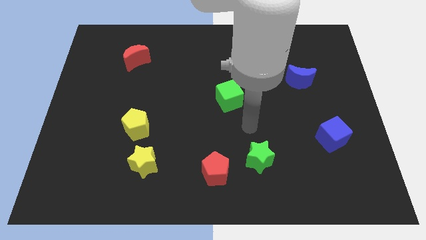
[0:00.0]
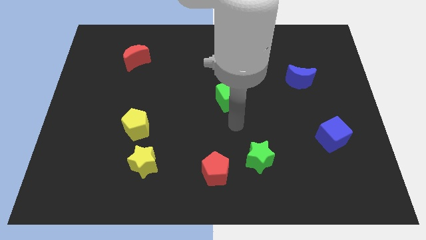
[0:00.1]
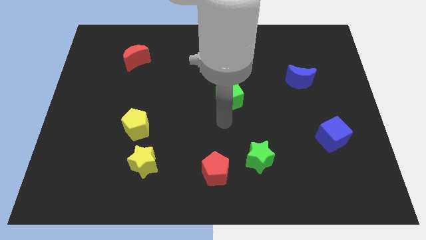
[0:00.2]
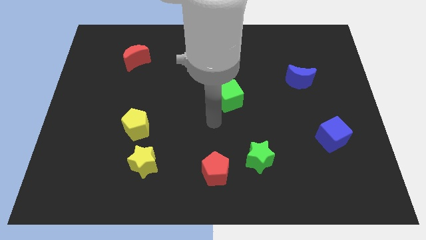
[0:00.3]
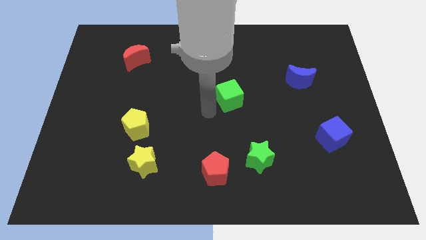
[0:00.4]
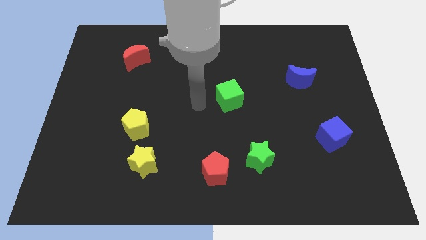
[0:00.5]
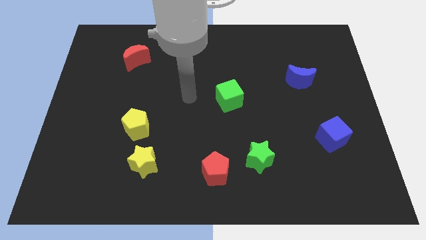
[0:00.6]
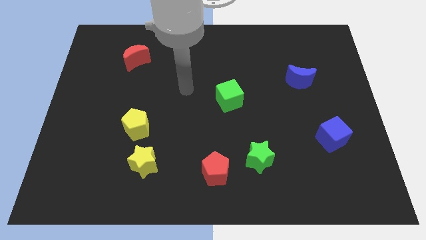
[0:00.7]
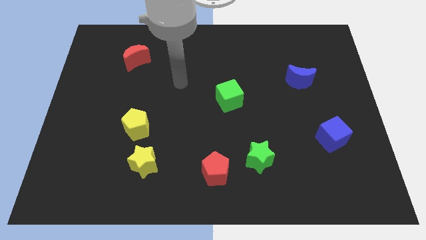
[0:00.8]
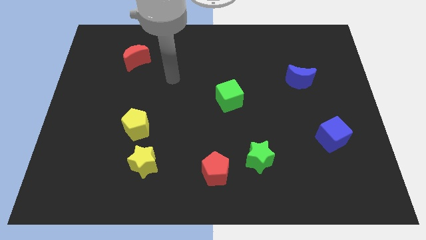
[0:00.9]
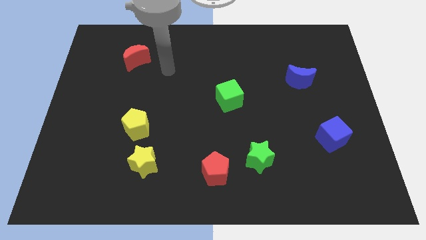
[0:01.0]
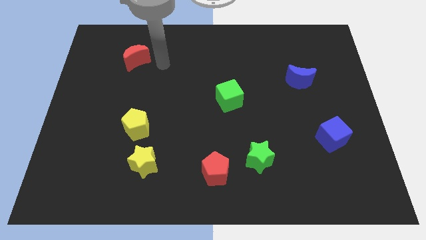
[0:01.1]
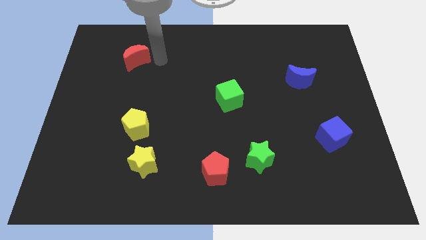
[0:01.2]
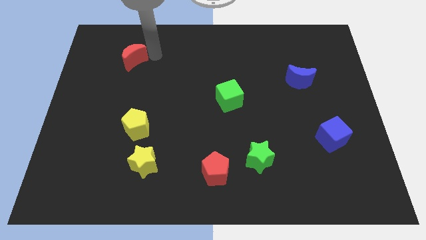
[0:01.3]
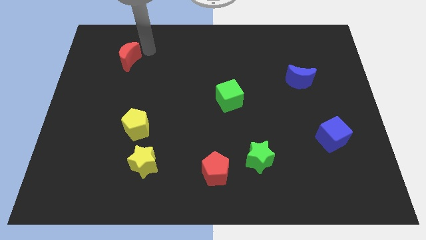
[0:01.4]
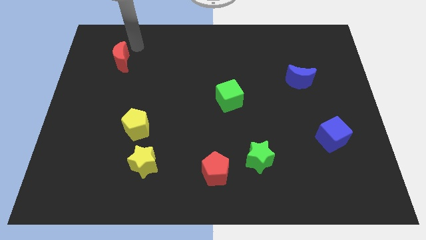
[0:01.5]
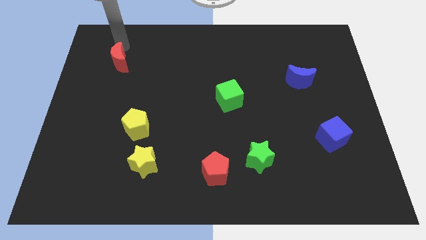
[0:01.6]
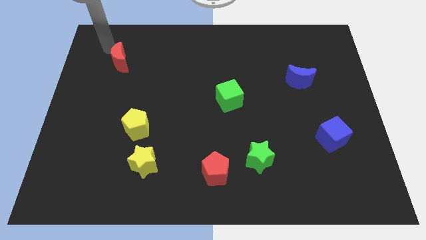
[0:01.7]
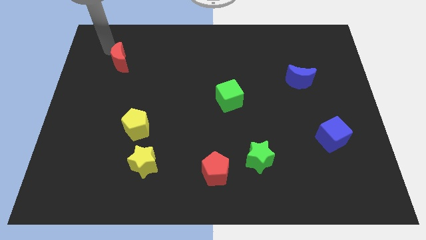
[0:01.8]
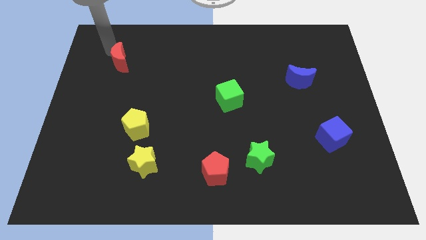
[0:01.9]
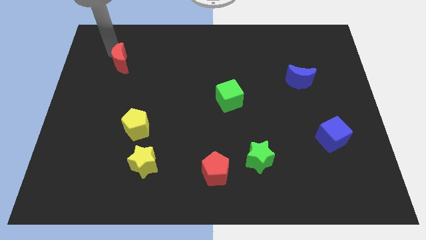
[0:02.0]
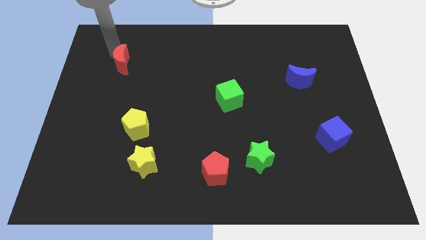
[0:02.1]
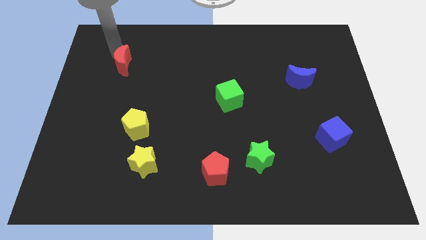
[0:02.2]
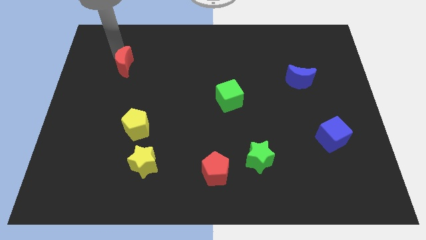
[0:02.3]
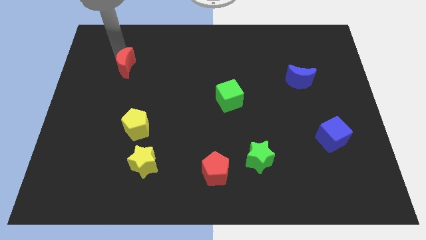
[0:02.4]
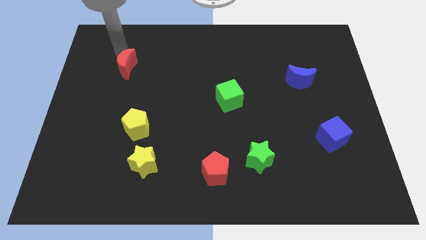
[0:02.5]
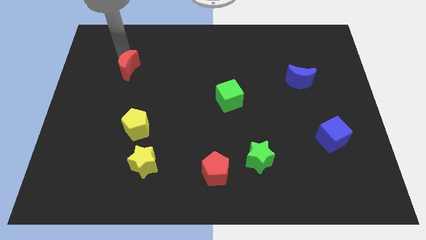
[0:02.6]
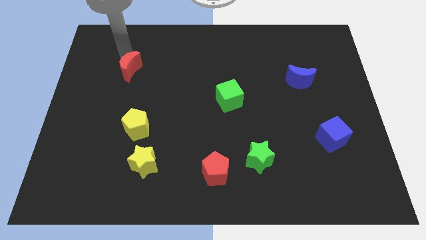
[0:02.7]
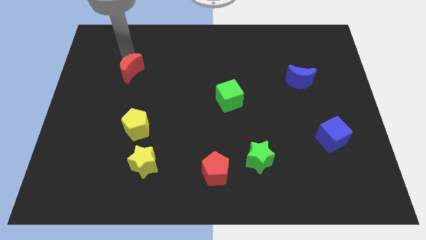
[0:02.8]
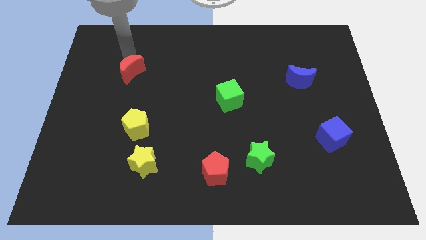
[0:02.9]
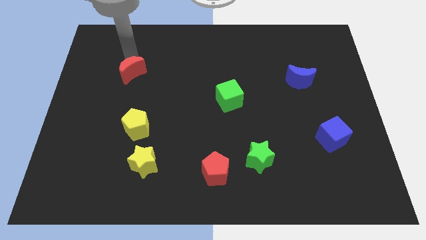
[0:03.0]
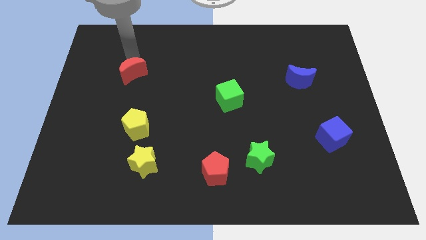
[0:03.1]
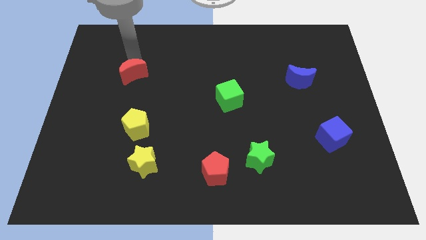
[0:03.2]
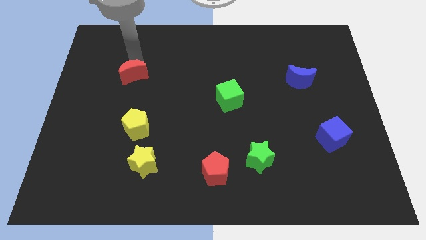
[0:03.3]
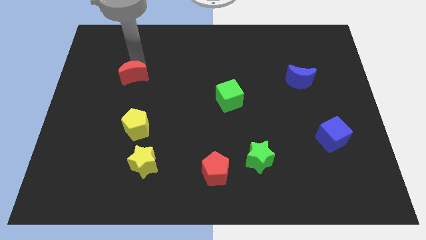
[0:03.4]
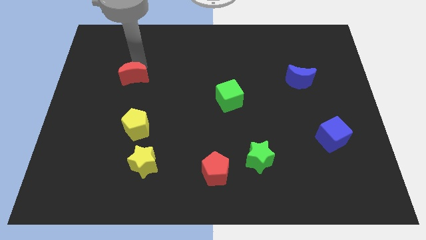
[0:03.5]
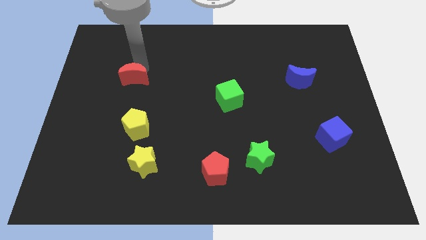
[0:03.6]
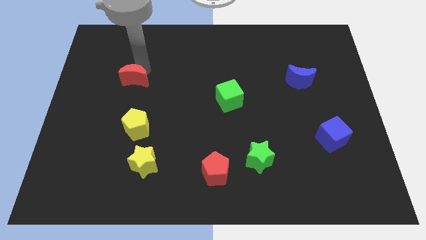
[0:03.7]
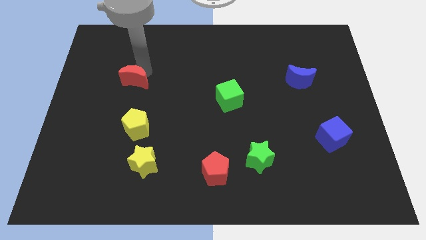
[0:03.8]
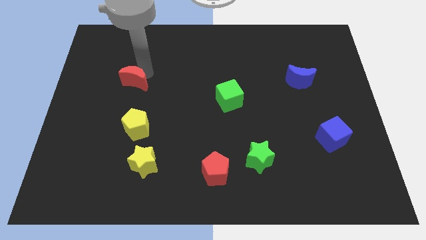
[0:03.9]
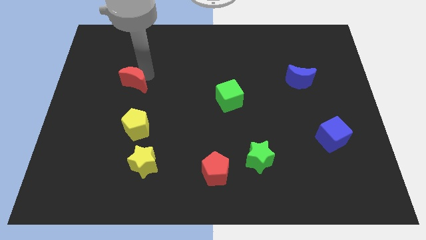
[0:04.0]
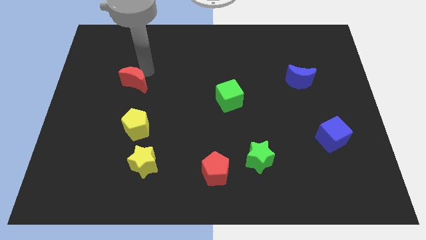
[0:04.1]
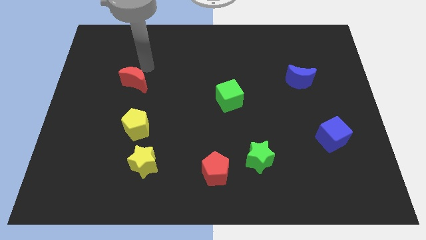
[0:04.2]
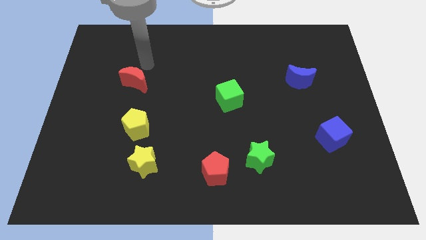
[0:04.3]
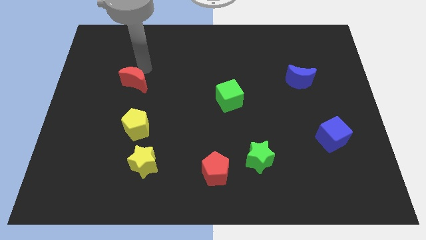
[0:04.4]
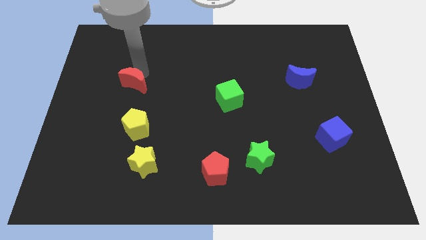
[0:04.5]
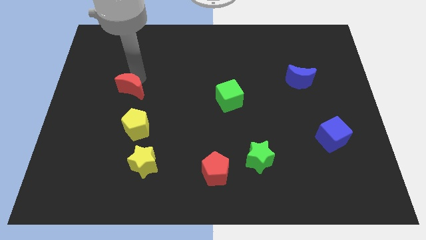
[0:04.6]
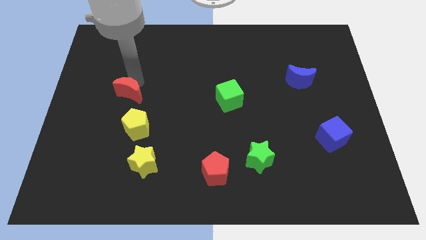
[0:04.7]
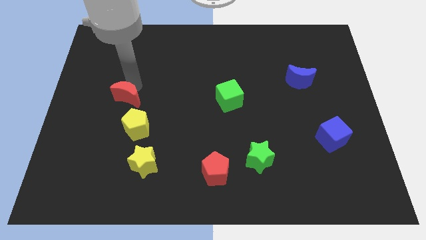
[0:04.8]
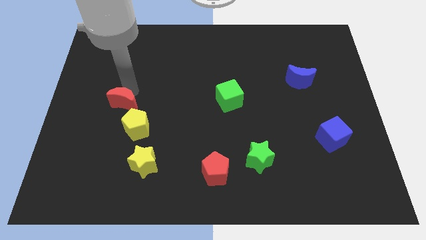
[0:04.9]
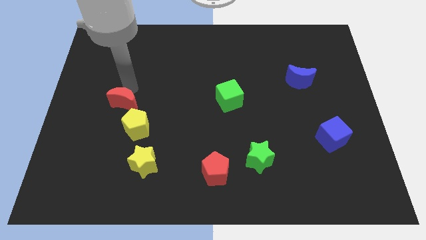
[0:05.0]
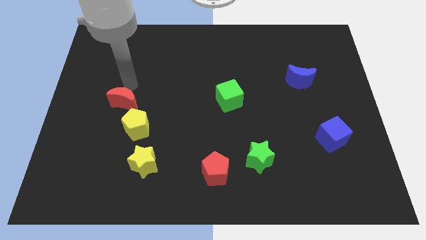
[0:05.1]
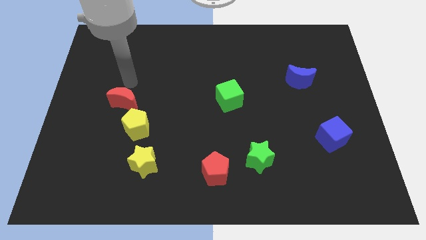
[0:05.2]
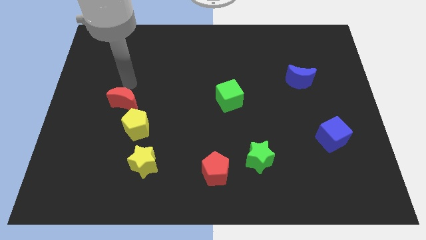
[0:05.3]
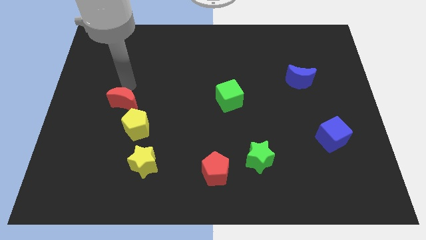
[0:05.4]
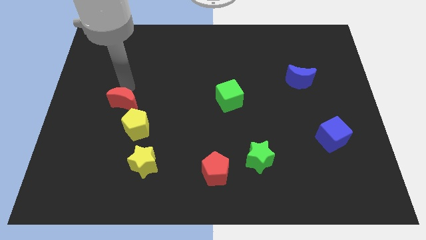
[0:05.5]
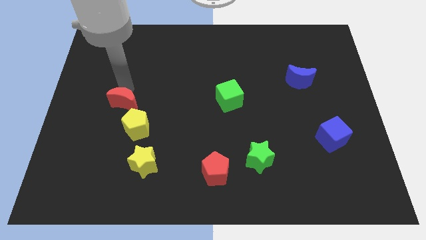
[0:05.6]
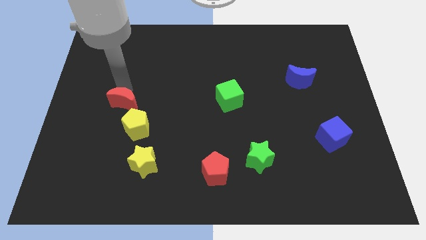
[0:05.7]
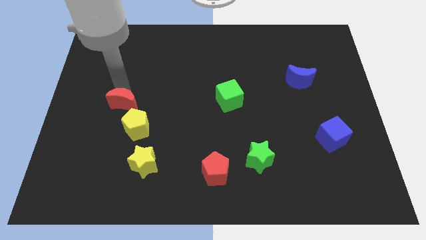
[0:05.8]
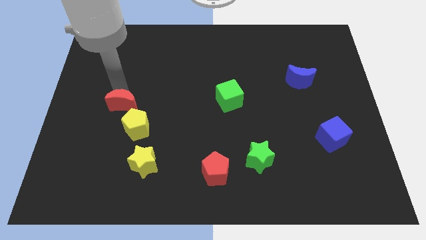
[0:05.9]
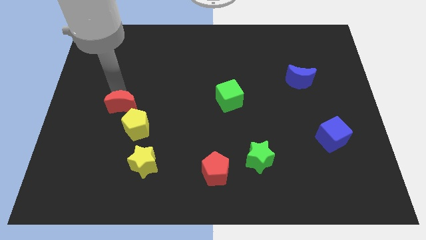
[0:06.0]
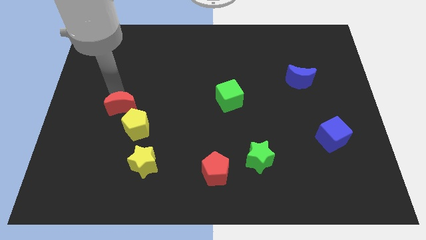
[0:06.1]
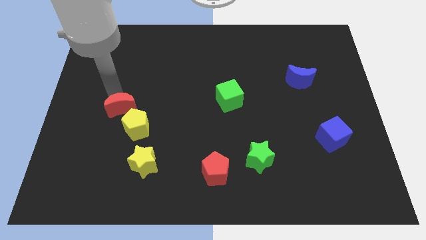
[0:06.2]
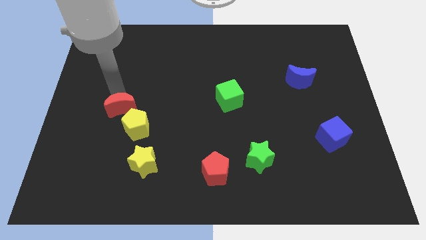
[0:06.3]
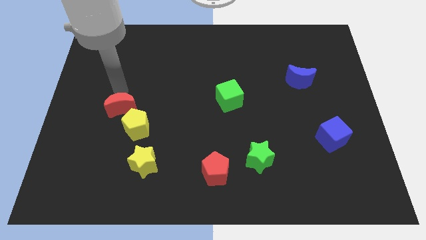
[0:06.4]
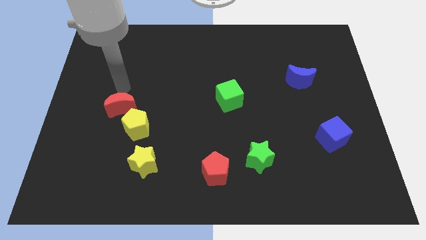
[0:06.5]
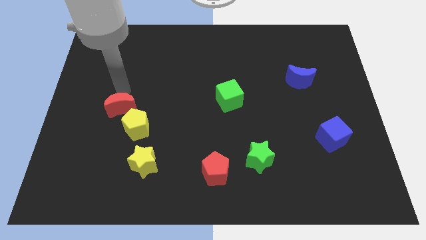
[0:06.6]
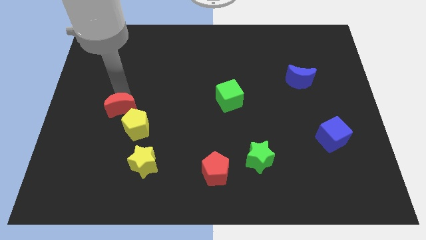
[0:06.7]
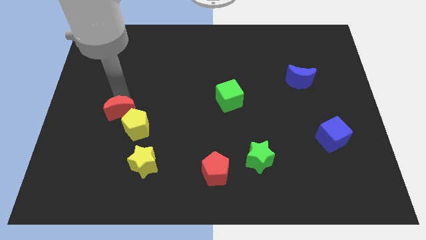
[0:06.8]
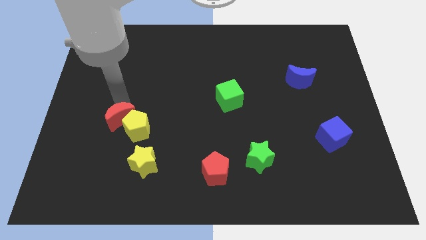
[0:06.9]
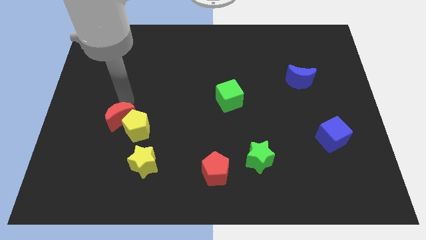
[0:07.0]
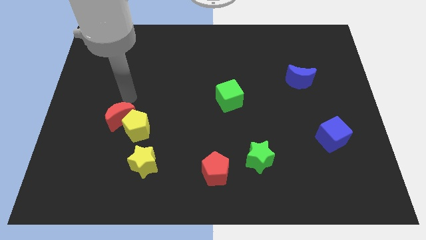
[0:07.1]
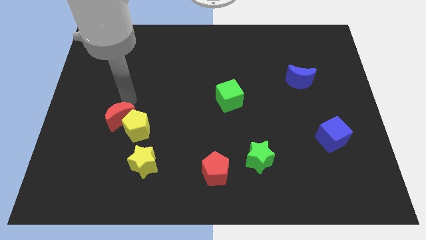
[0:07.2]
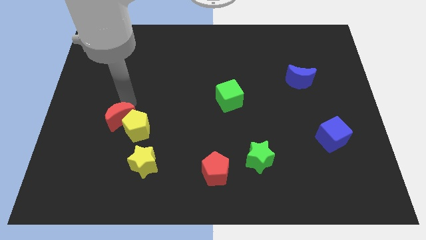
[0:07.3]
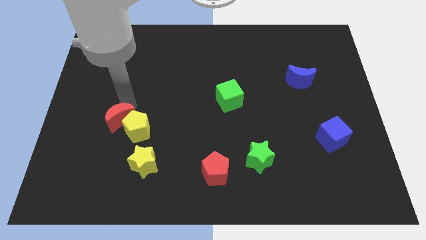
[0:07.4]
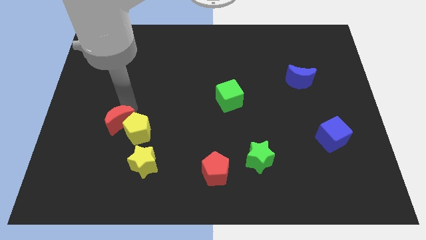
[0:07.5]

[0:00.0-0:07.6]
push the red moon downwards

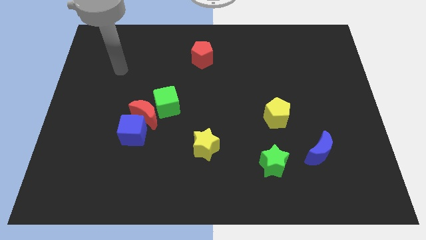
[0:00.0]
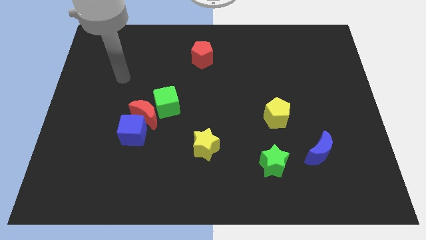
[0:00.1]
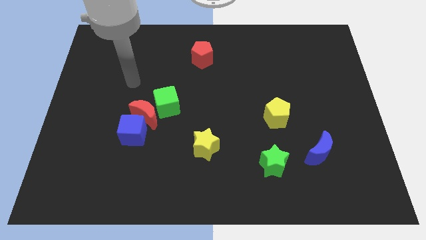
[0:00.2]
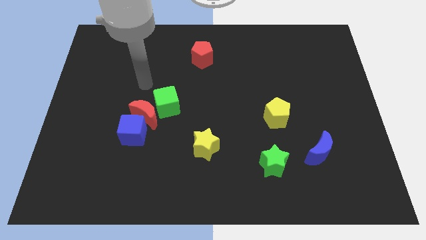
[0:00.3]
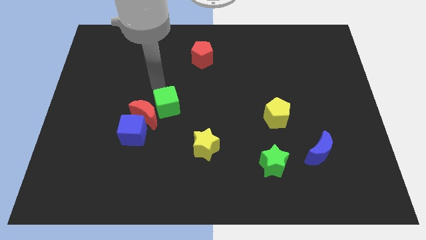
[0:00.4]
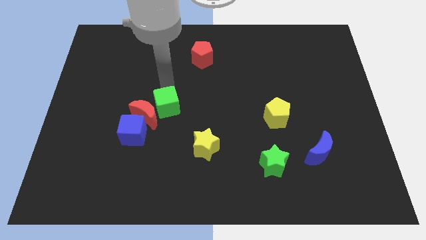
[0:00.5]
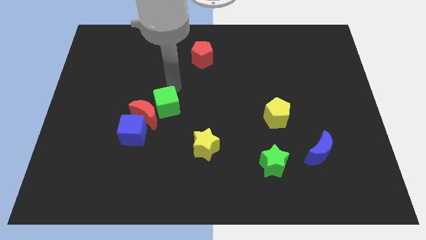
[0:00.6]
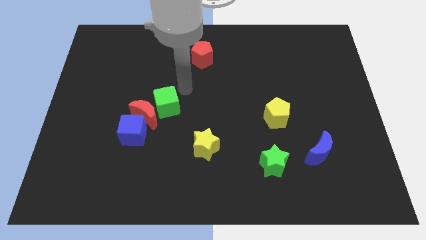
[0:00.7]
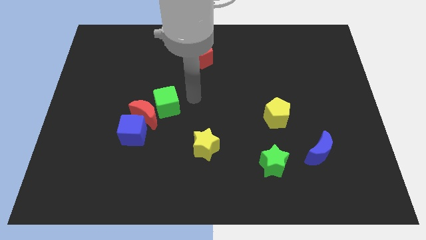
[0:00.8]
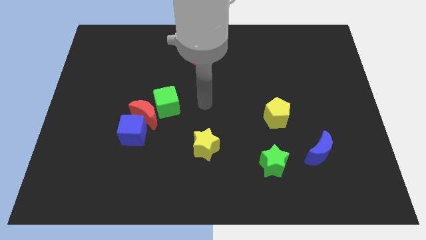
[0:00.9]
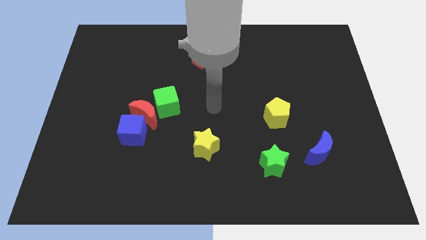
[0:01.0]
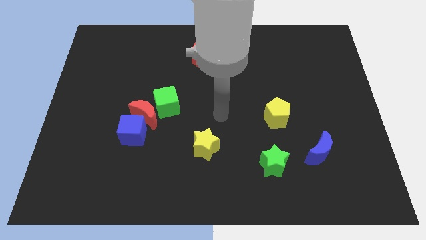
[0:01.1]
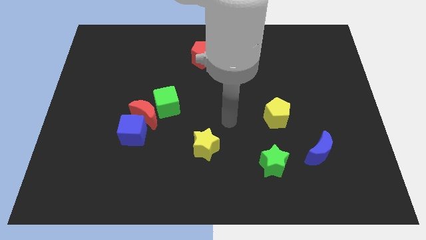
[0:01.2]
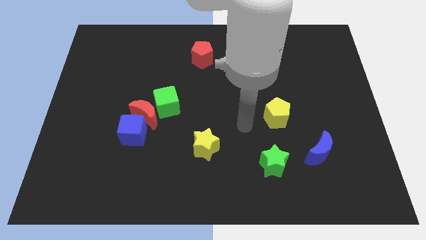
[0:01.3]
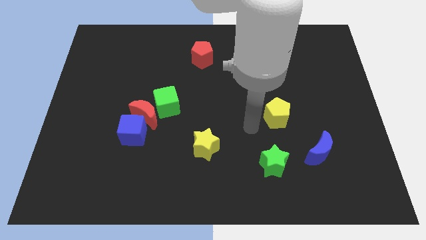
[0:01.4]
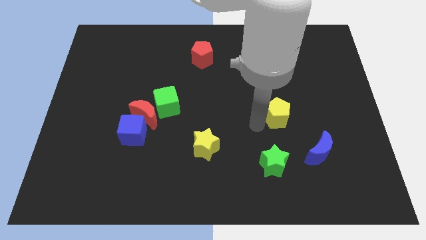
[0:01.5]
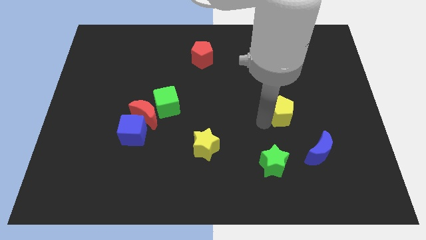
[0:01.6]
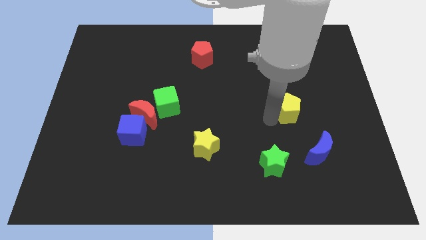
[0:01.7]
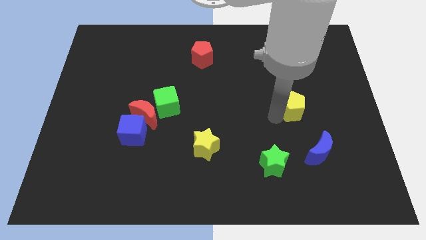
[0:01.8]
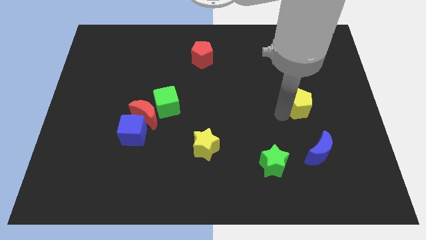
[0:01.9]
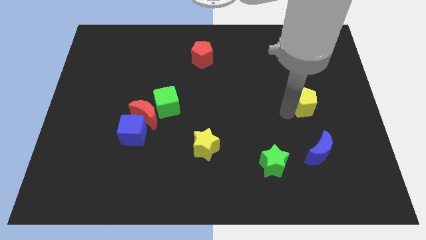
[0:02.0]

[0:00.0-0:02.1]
slide the yellow pentagon upwards and then right a little bit
